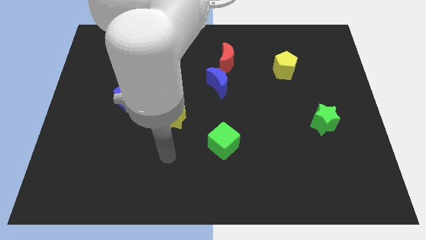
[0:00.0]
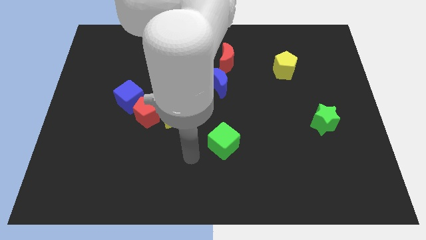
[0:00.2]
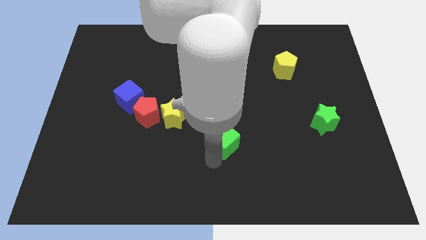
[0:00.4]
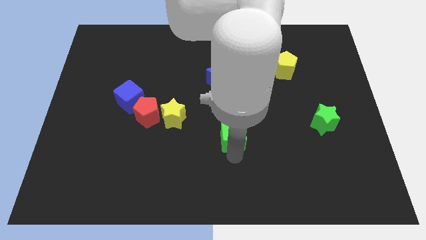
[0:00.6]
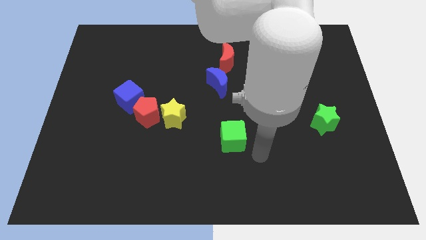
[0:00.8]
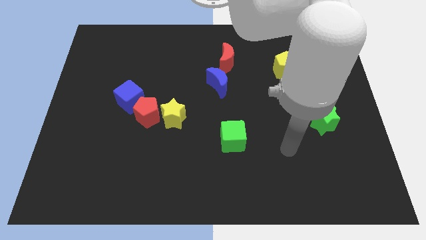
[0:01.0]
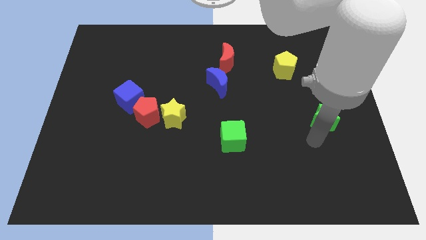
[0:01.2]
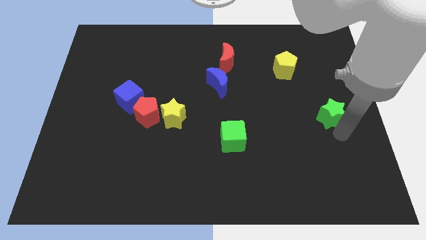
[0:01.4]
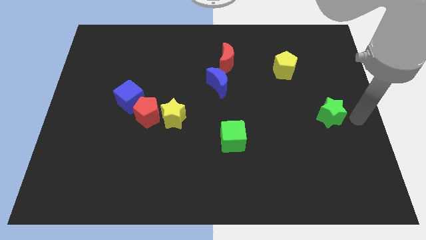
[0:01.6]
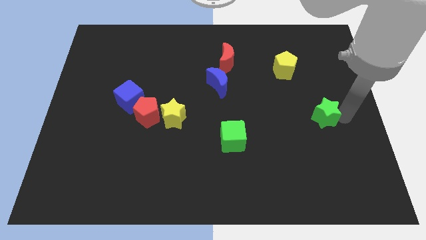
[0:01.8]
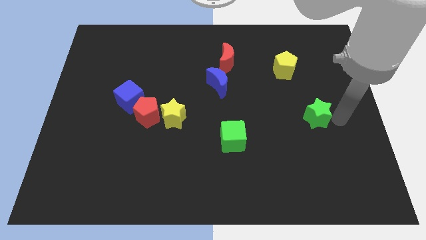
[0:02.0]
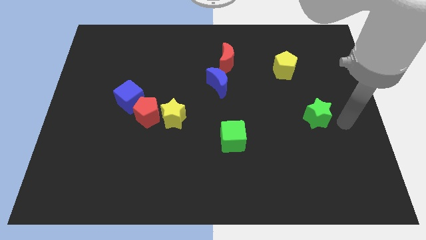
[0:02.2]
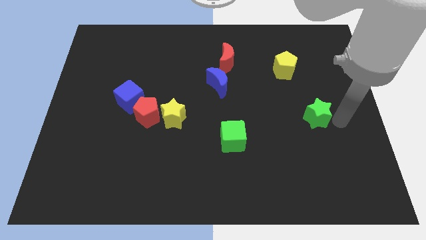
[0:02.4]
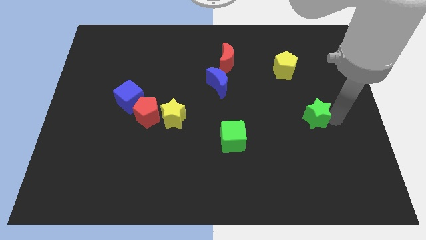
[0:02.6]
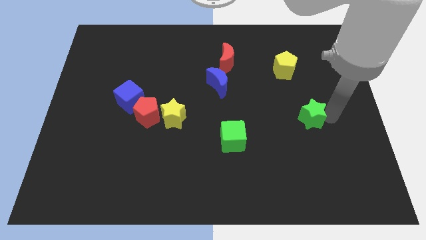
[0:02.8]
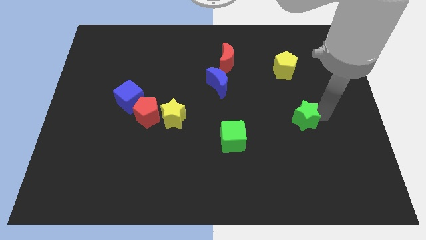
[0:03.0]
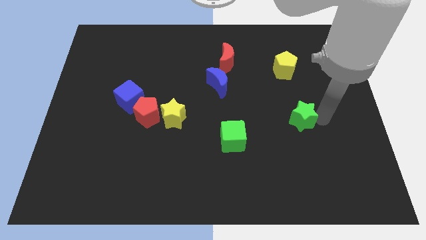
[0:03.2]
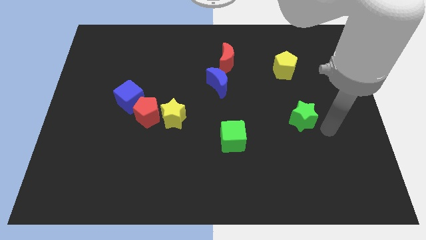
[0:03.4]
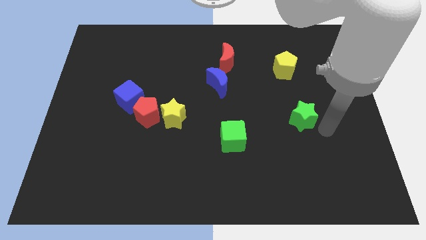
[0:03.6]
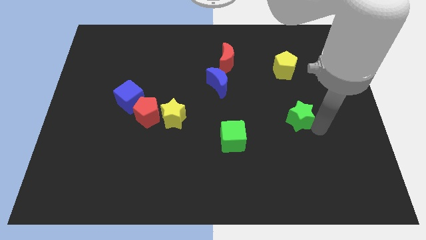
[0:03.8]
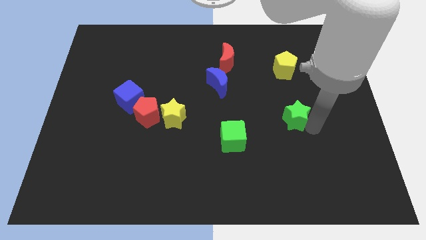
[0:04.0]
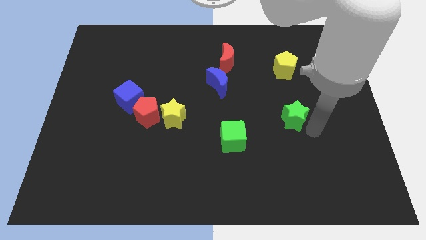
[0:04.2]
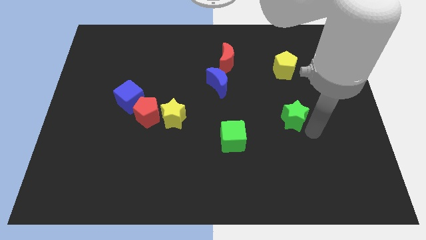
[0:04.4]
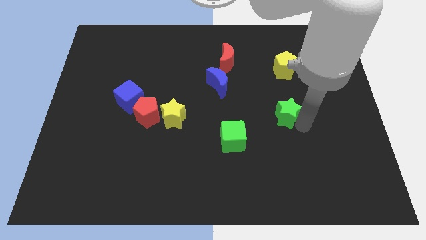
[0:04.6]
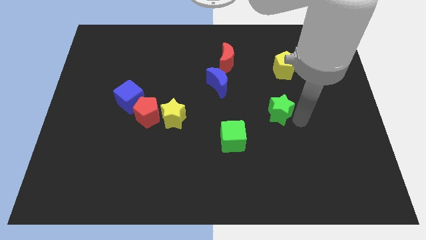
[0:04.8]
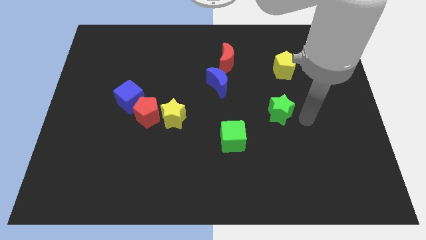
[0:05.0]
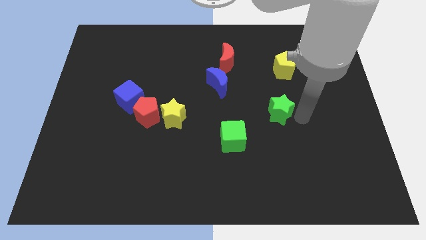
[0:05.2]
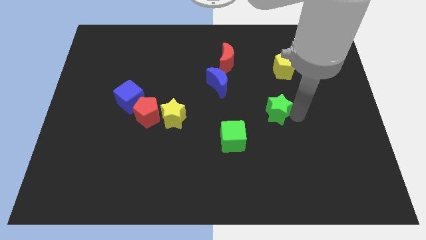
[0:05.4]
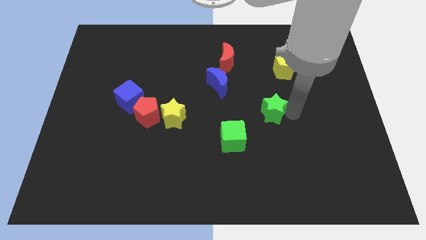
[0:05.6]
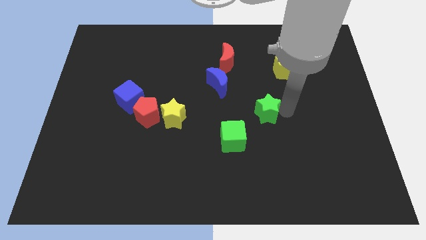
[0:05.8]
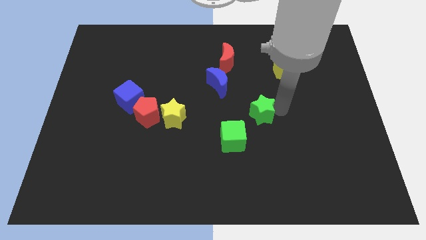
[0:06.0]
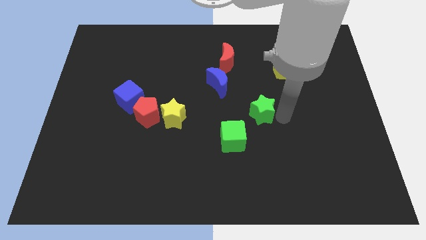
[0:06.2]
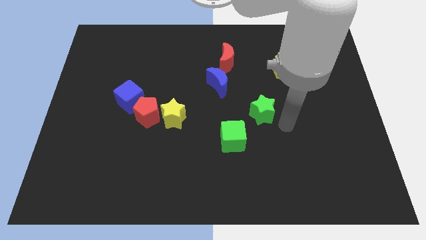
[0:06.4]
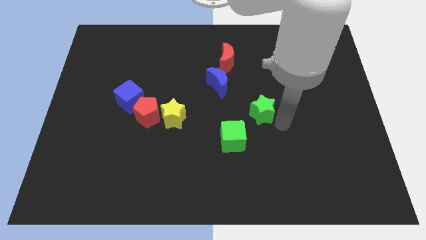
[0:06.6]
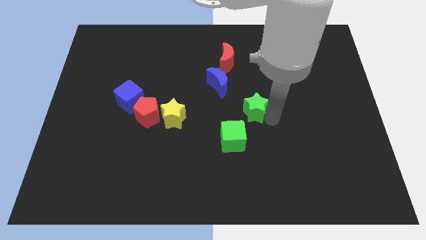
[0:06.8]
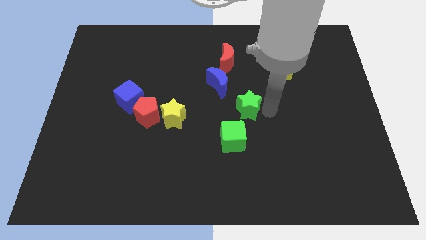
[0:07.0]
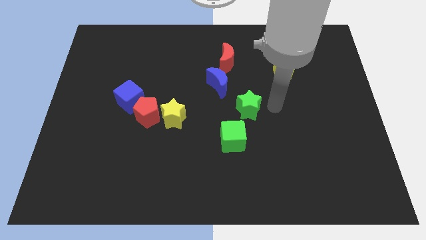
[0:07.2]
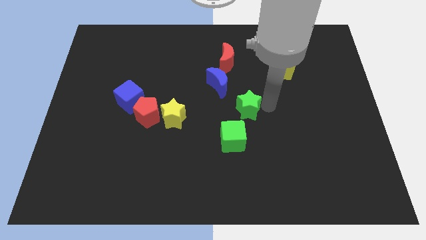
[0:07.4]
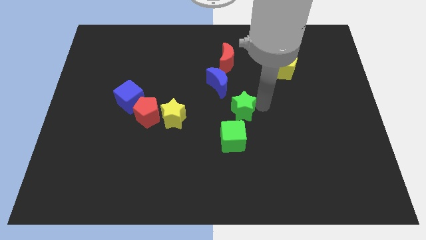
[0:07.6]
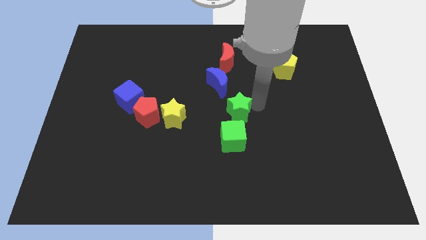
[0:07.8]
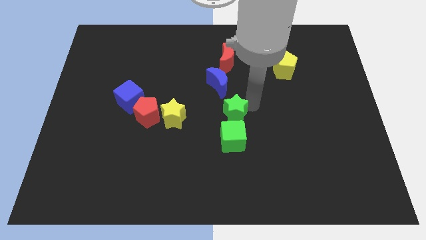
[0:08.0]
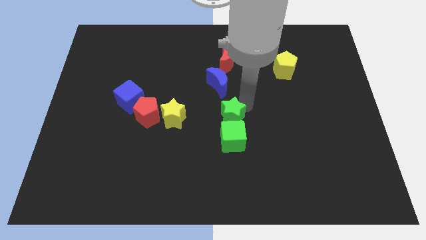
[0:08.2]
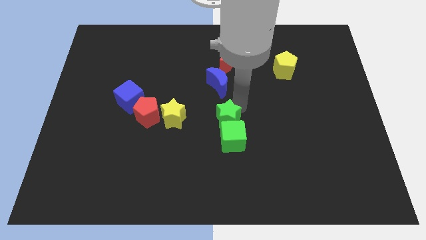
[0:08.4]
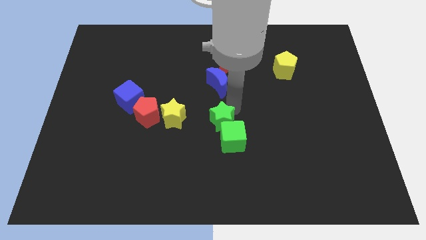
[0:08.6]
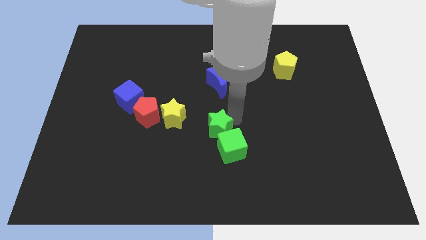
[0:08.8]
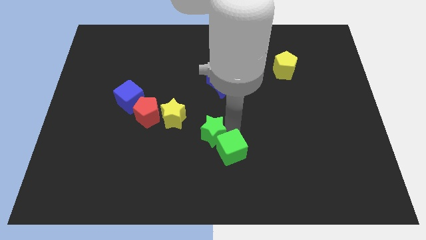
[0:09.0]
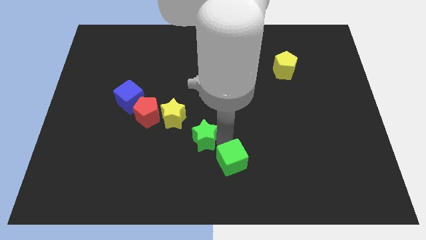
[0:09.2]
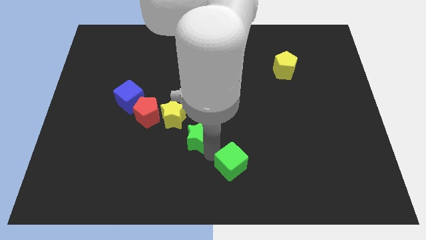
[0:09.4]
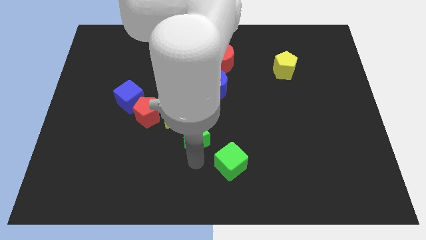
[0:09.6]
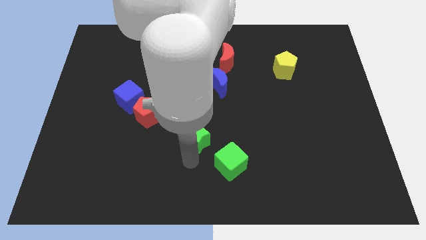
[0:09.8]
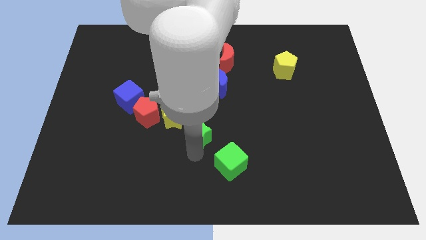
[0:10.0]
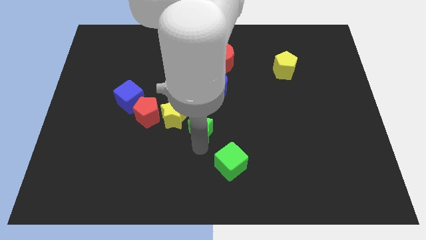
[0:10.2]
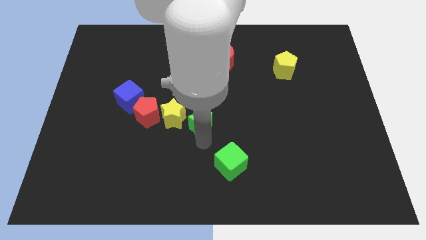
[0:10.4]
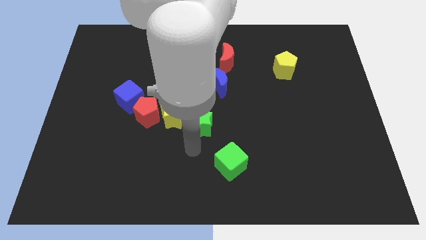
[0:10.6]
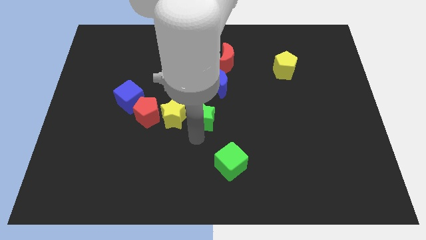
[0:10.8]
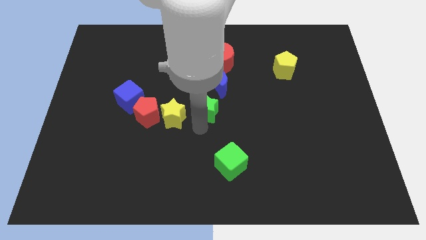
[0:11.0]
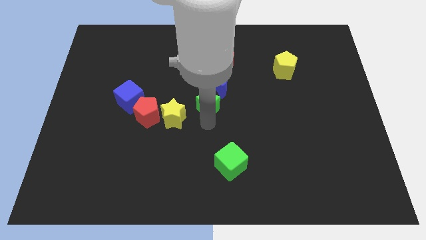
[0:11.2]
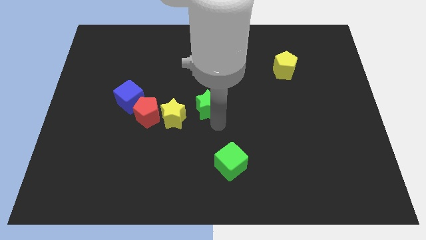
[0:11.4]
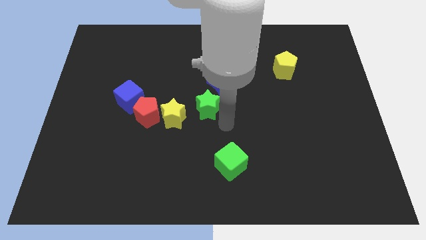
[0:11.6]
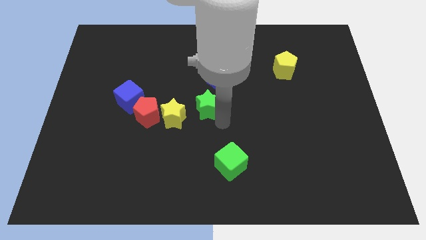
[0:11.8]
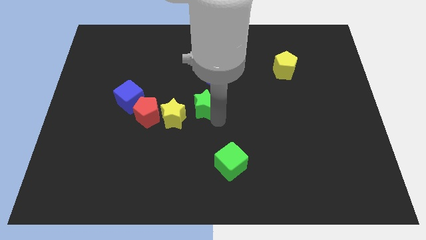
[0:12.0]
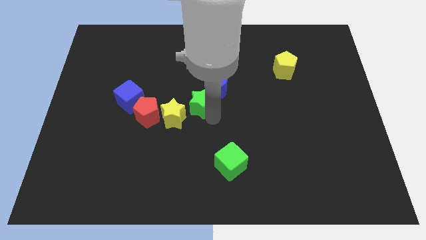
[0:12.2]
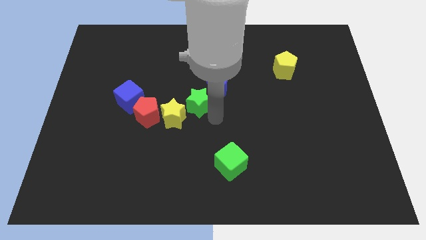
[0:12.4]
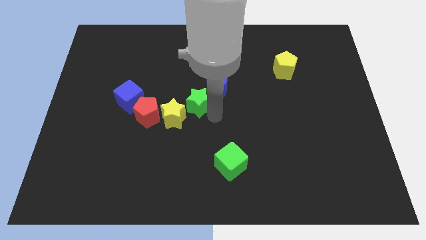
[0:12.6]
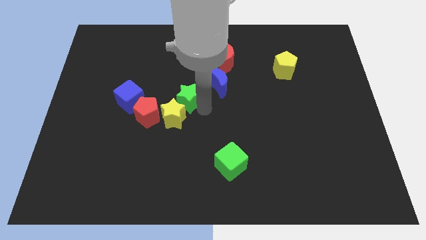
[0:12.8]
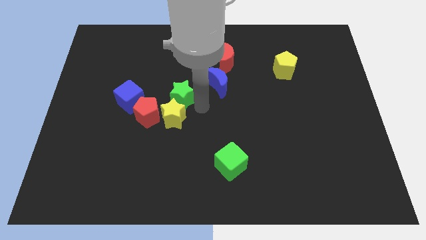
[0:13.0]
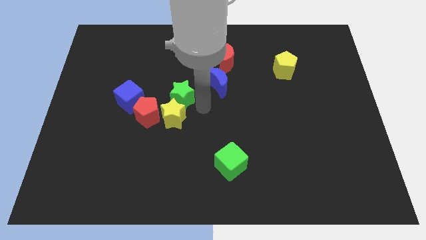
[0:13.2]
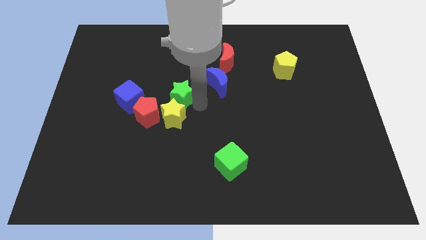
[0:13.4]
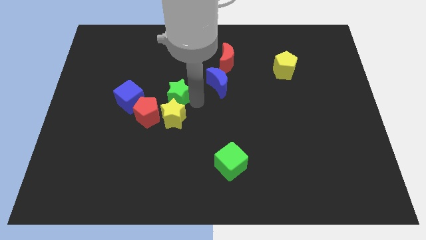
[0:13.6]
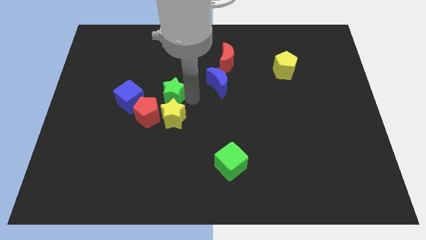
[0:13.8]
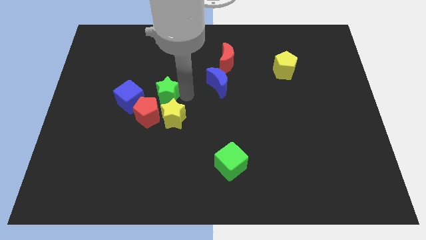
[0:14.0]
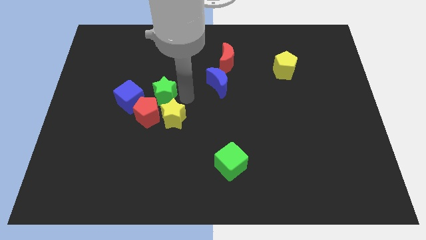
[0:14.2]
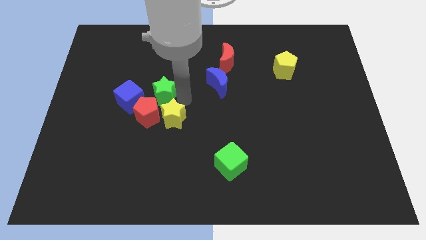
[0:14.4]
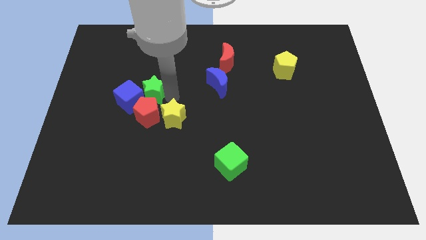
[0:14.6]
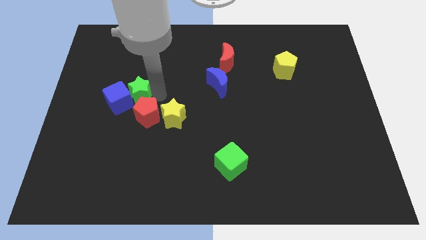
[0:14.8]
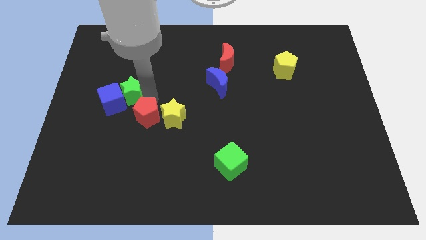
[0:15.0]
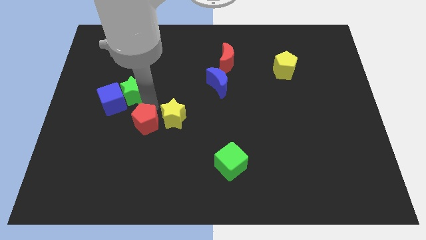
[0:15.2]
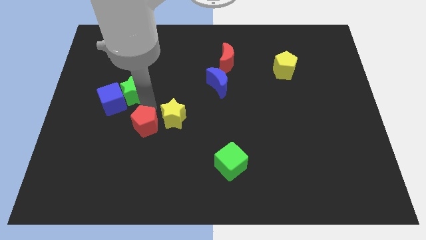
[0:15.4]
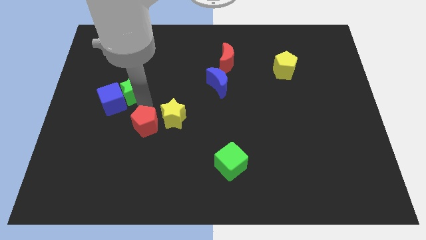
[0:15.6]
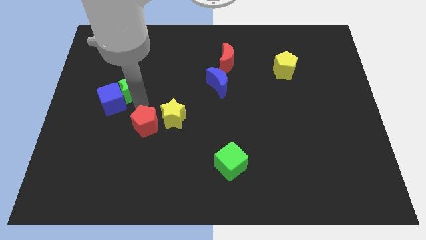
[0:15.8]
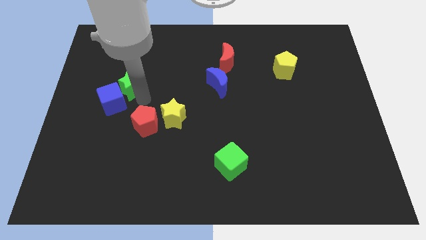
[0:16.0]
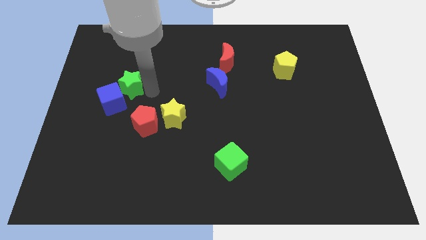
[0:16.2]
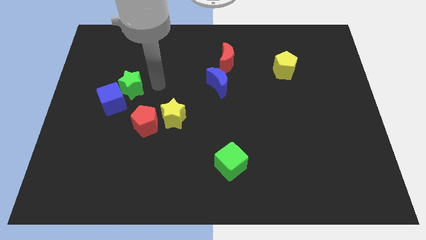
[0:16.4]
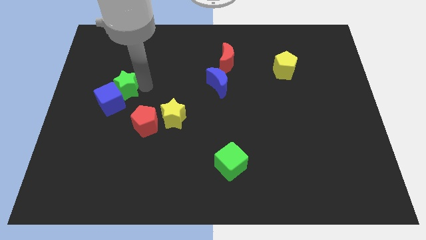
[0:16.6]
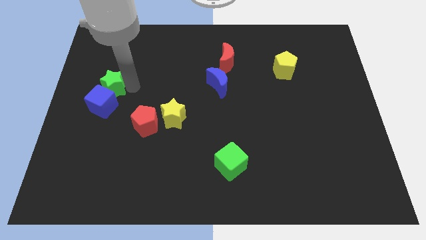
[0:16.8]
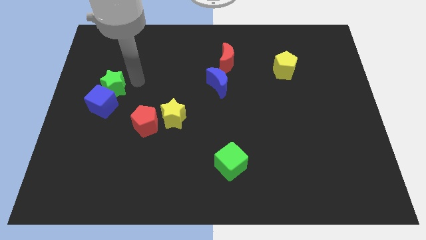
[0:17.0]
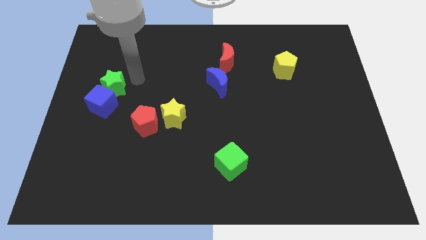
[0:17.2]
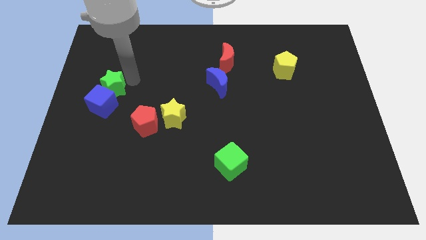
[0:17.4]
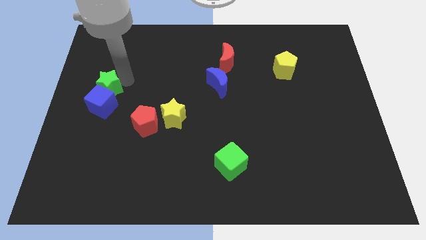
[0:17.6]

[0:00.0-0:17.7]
slide the green star to the center left
